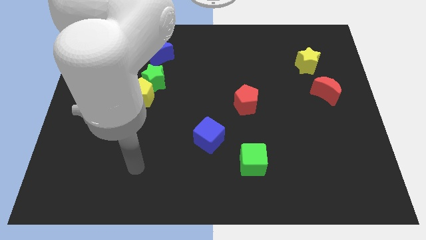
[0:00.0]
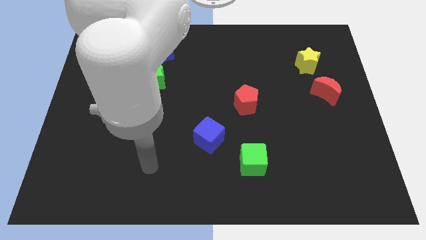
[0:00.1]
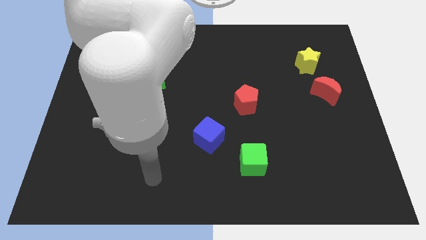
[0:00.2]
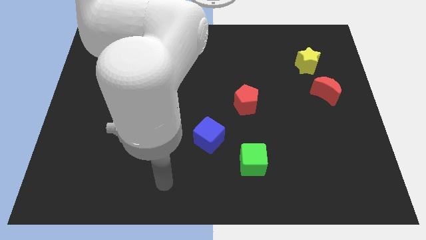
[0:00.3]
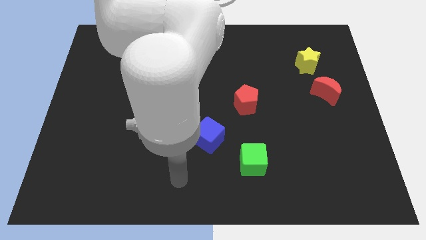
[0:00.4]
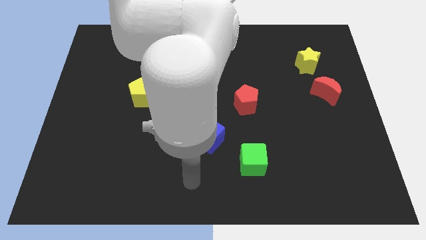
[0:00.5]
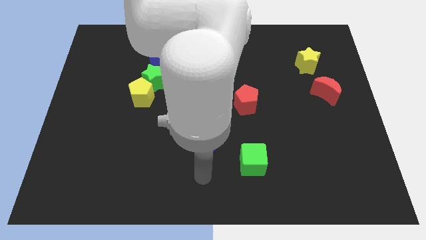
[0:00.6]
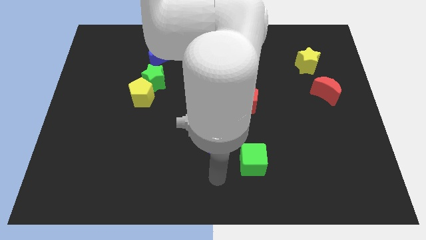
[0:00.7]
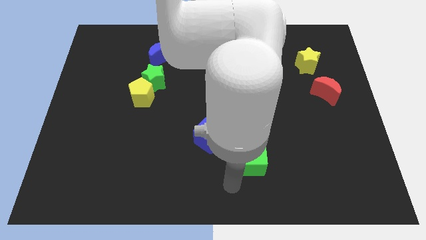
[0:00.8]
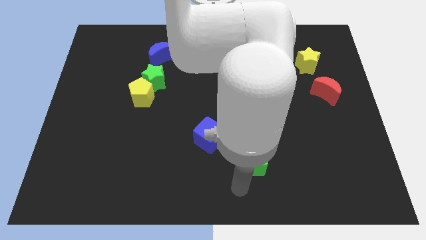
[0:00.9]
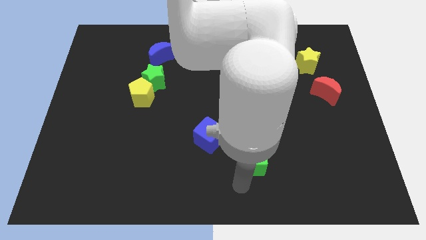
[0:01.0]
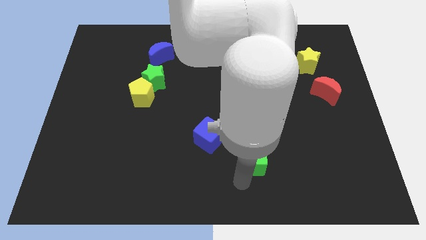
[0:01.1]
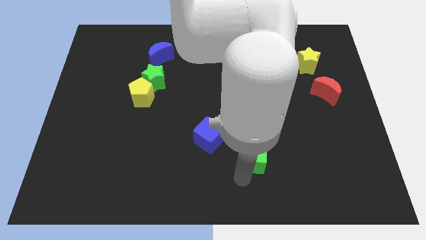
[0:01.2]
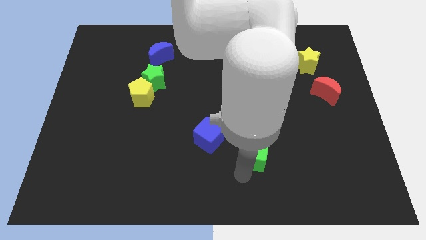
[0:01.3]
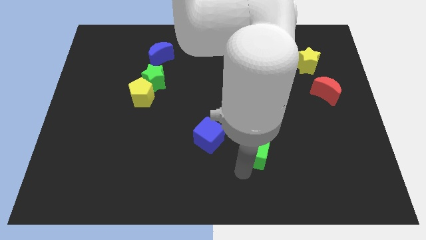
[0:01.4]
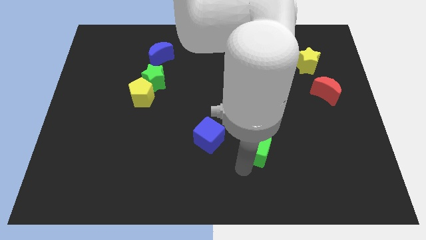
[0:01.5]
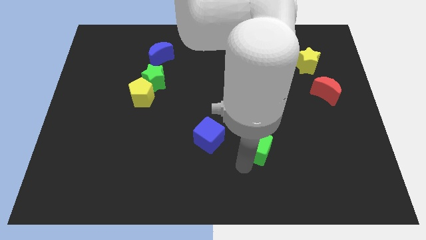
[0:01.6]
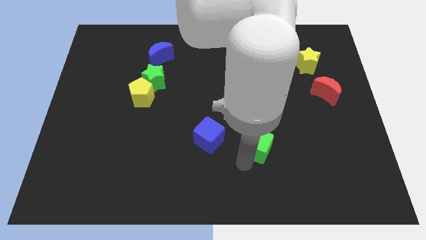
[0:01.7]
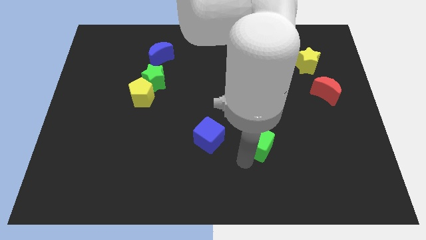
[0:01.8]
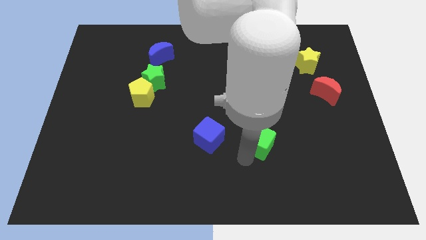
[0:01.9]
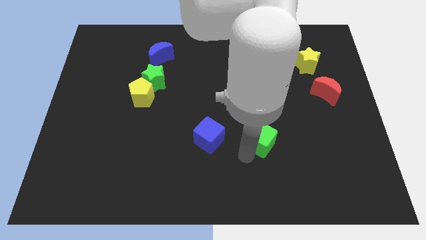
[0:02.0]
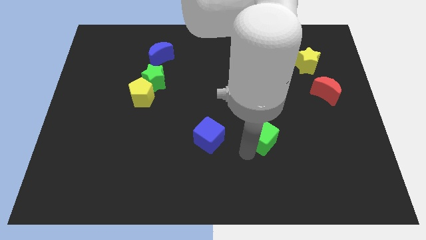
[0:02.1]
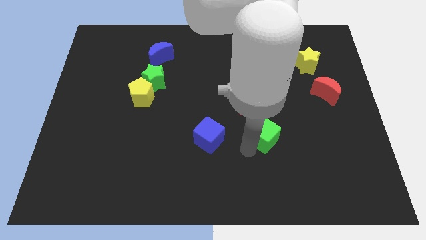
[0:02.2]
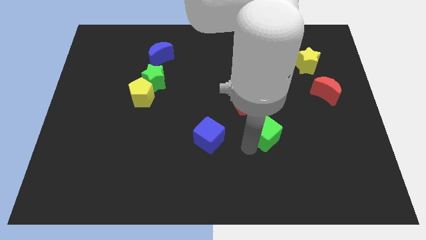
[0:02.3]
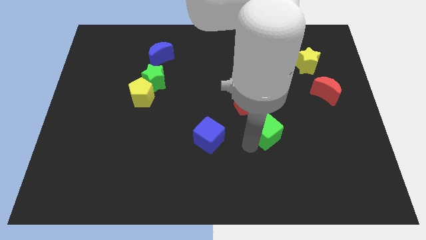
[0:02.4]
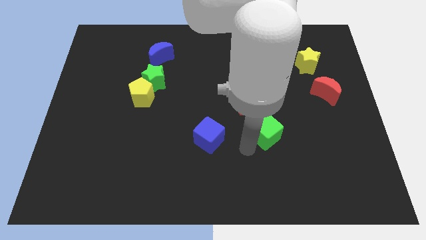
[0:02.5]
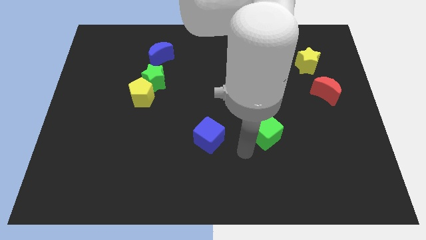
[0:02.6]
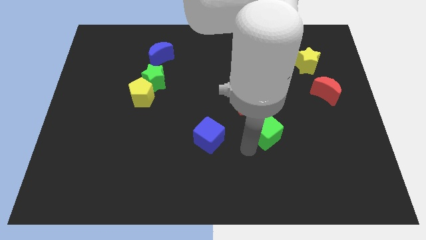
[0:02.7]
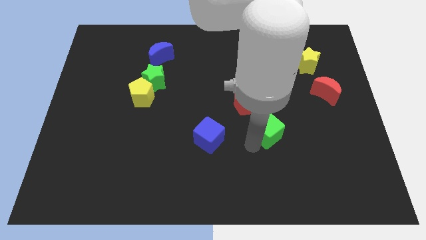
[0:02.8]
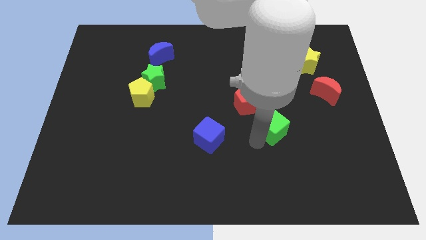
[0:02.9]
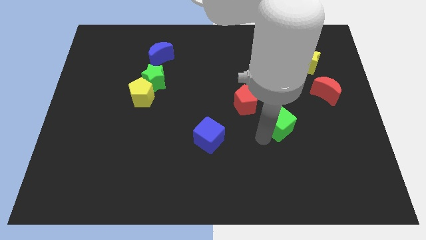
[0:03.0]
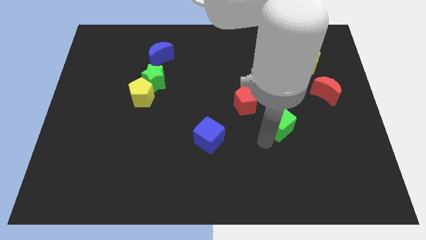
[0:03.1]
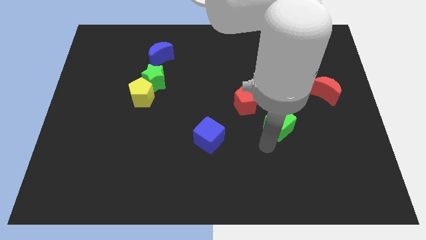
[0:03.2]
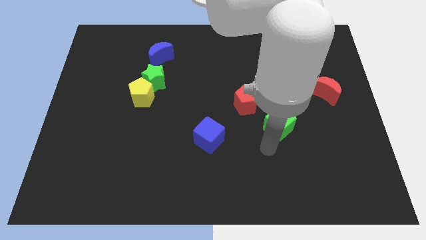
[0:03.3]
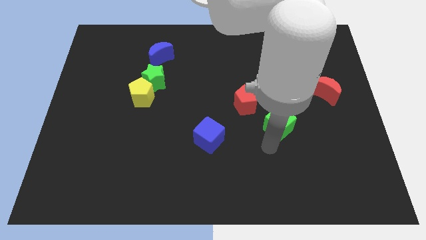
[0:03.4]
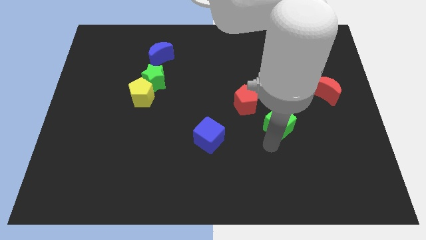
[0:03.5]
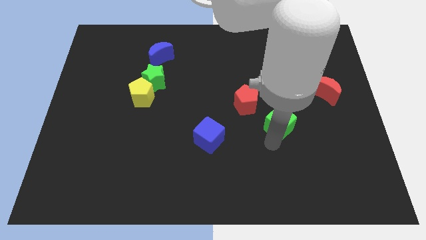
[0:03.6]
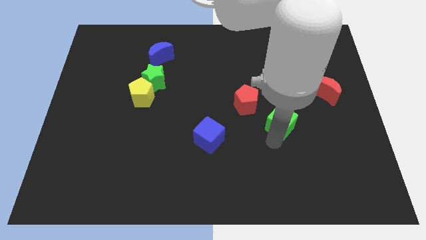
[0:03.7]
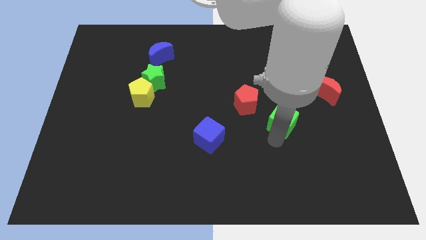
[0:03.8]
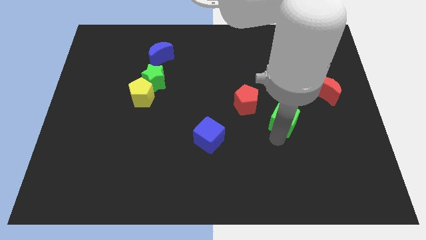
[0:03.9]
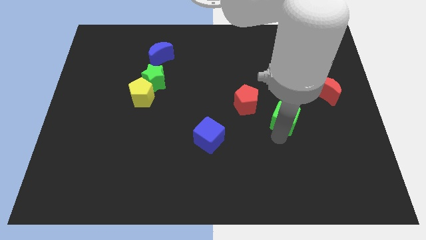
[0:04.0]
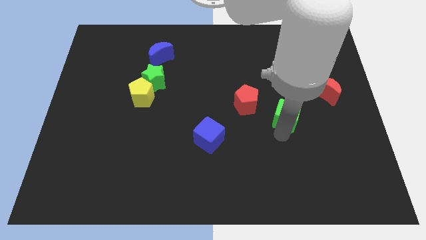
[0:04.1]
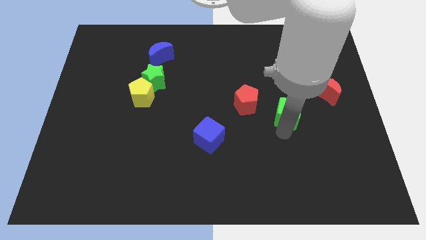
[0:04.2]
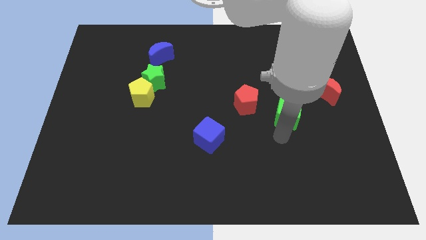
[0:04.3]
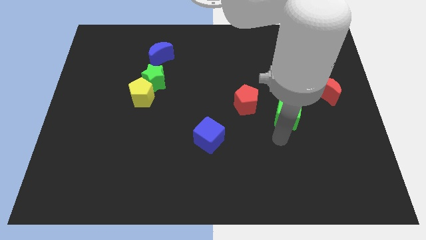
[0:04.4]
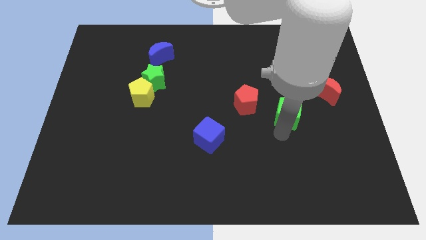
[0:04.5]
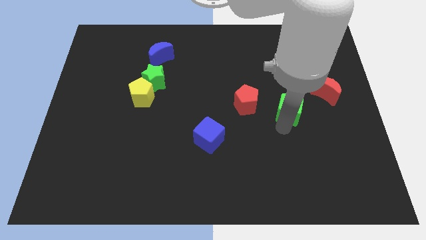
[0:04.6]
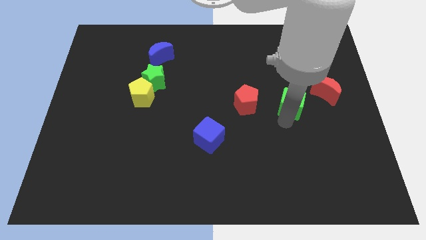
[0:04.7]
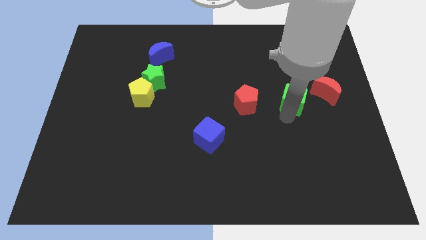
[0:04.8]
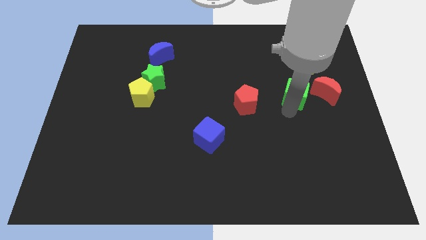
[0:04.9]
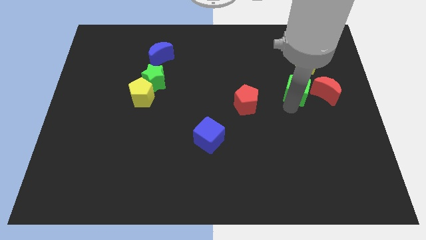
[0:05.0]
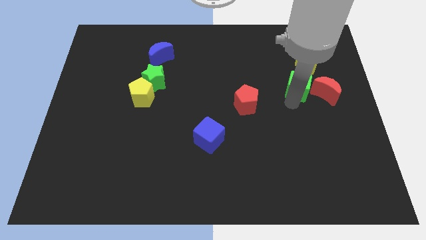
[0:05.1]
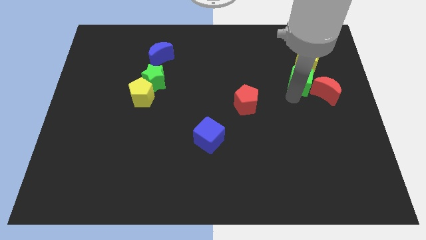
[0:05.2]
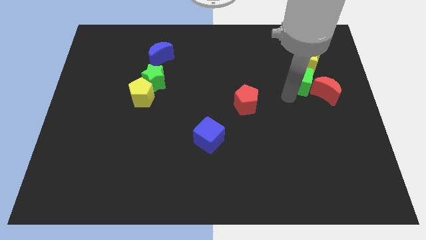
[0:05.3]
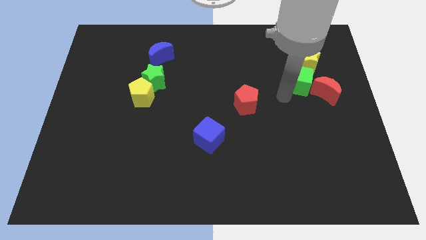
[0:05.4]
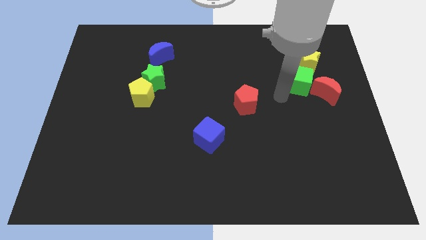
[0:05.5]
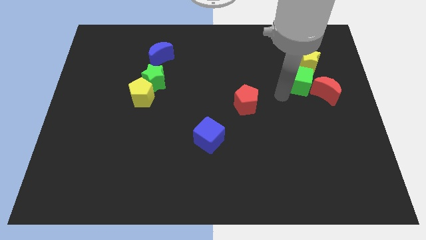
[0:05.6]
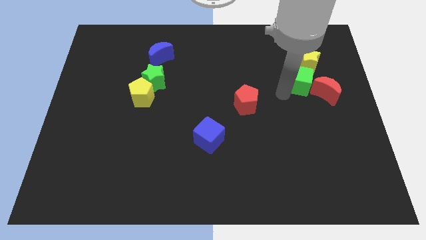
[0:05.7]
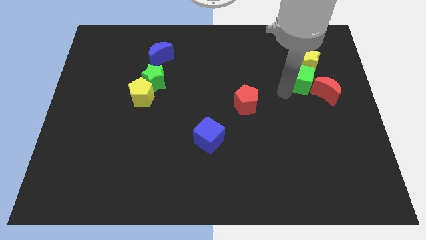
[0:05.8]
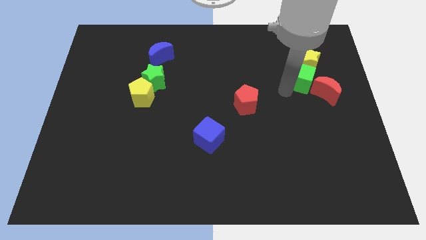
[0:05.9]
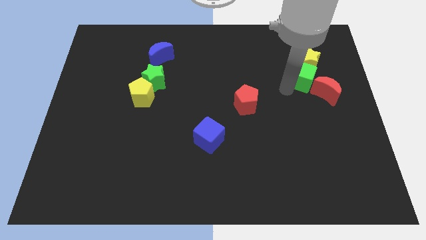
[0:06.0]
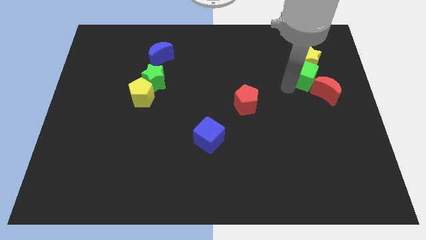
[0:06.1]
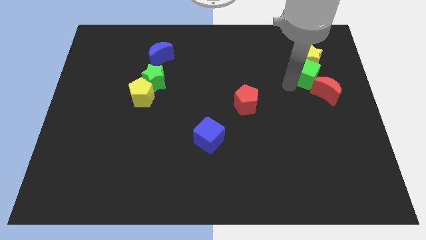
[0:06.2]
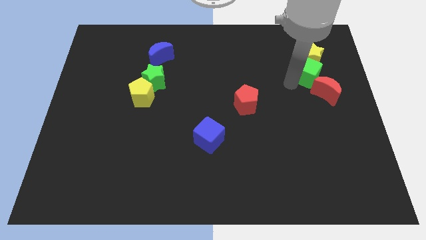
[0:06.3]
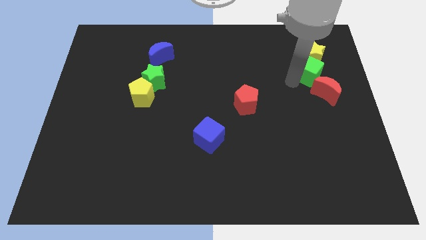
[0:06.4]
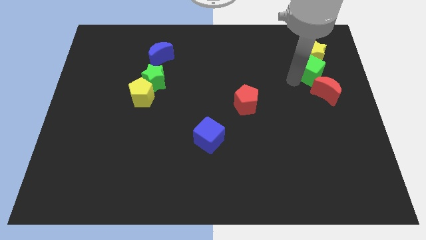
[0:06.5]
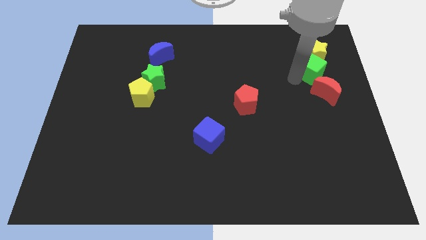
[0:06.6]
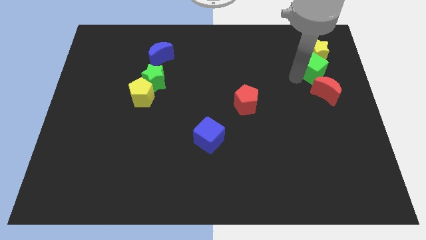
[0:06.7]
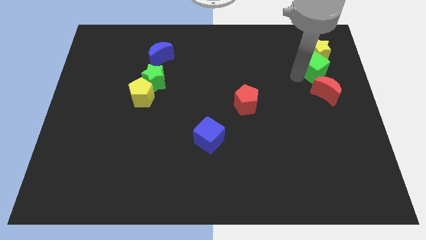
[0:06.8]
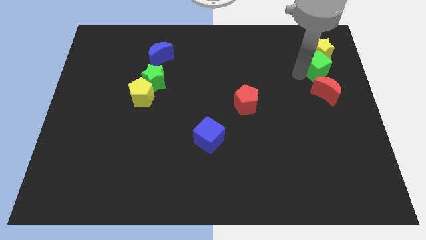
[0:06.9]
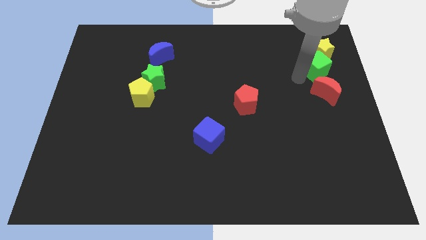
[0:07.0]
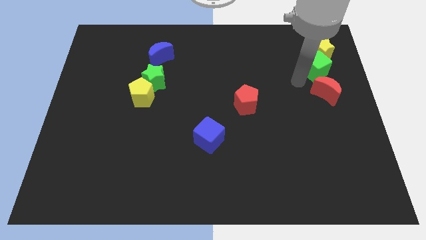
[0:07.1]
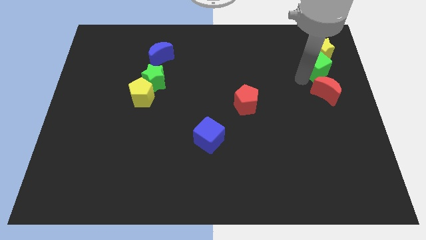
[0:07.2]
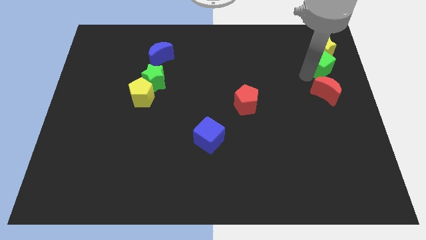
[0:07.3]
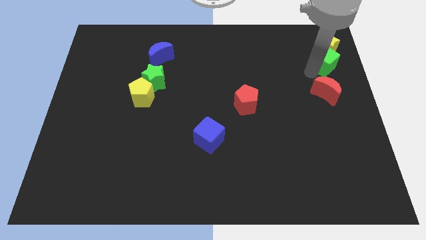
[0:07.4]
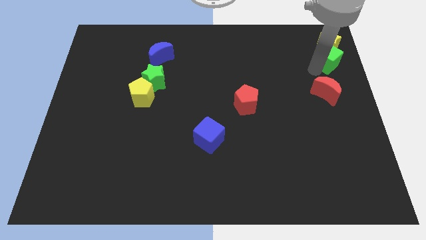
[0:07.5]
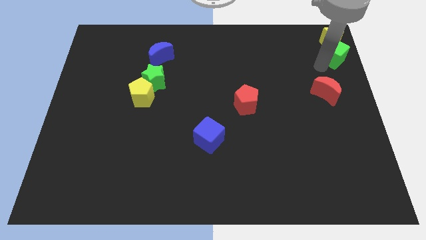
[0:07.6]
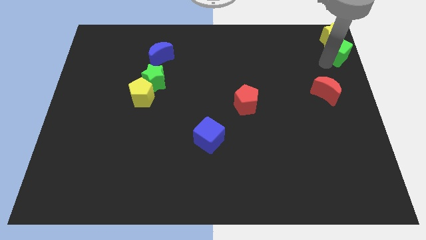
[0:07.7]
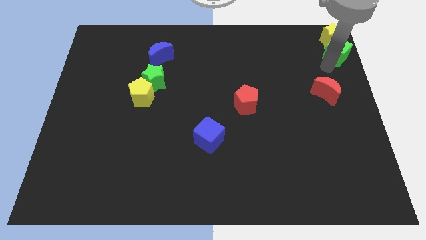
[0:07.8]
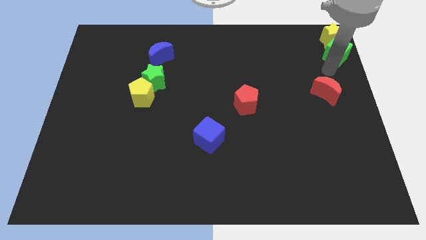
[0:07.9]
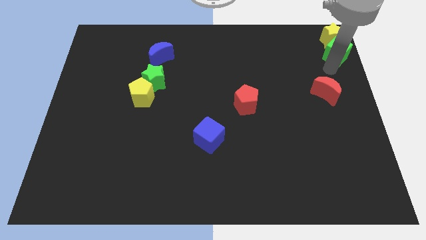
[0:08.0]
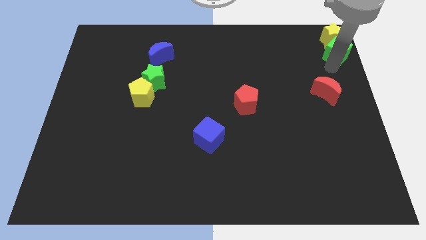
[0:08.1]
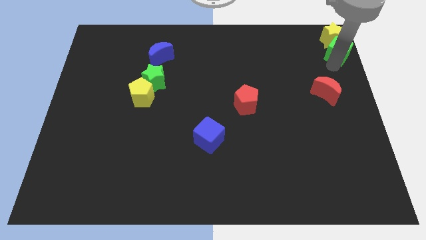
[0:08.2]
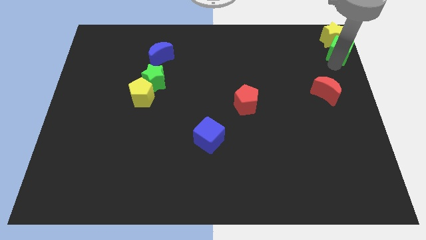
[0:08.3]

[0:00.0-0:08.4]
slide the green cube to the top right corner
